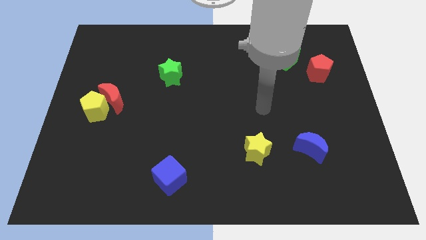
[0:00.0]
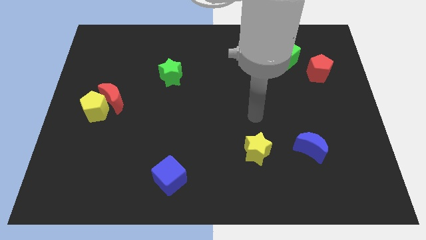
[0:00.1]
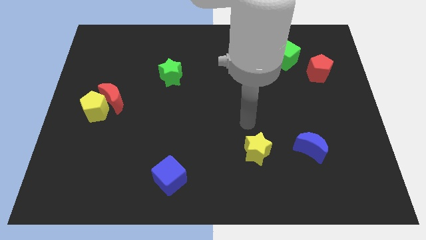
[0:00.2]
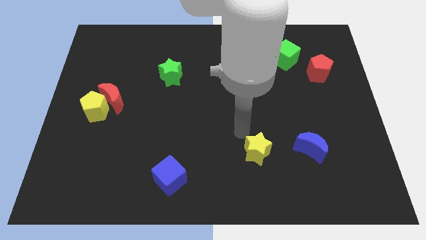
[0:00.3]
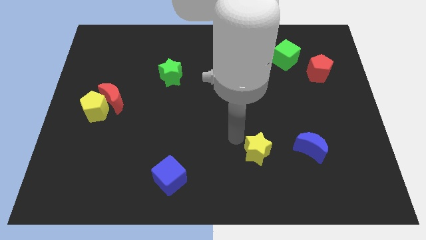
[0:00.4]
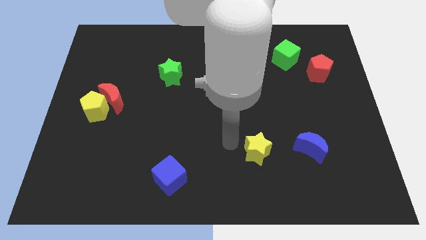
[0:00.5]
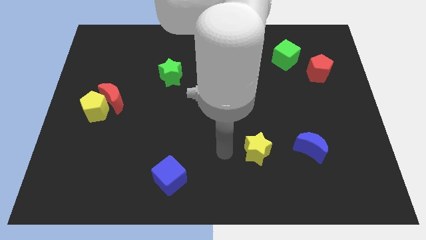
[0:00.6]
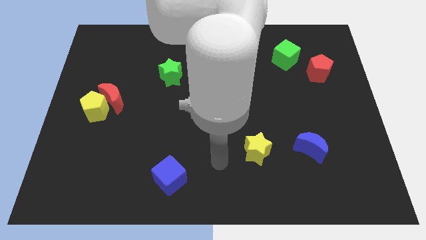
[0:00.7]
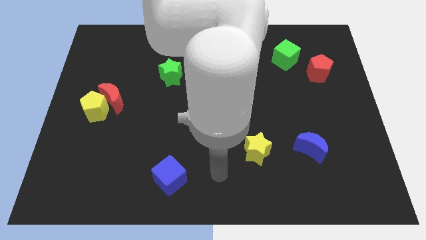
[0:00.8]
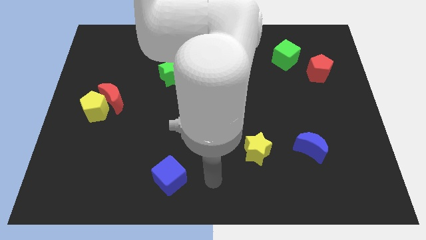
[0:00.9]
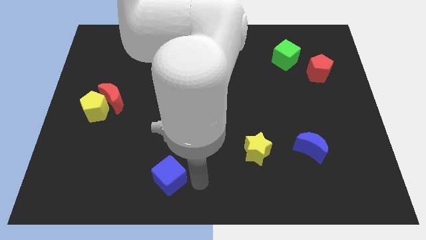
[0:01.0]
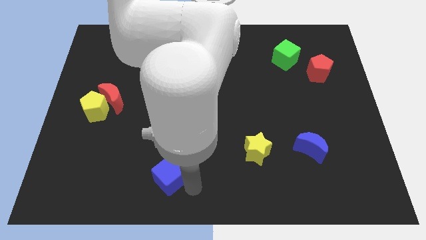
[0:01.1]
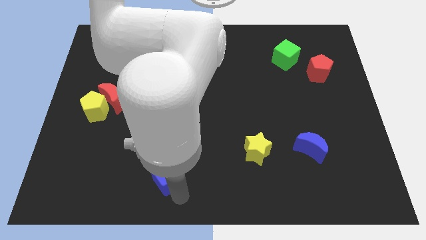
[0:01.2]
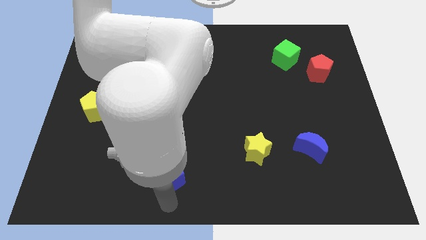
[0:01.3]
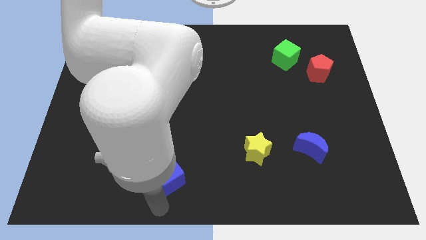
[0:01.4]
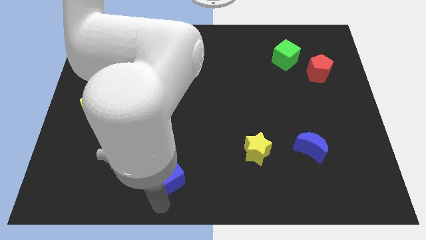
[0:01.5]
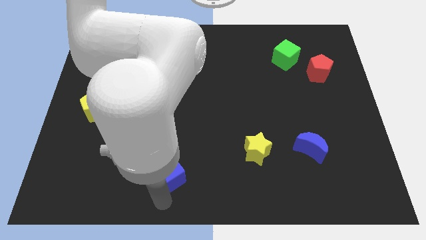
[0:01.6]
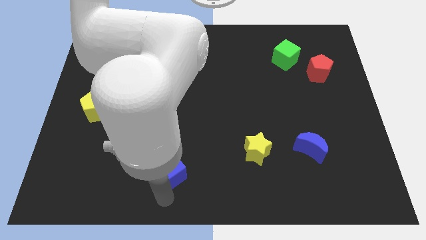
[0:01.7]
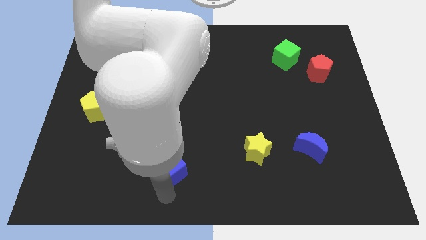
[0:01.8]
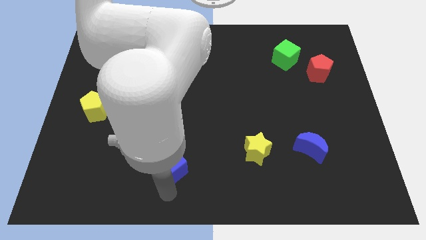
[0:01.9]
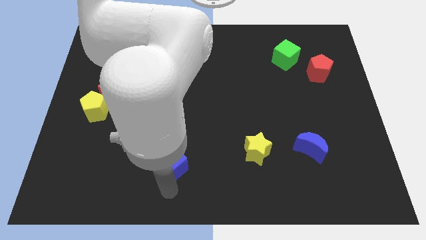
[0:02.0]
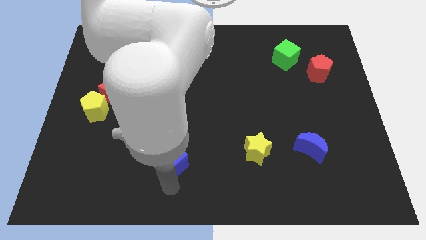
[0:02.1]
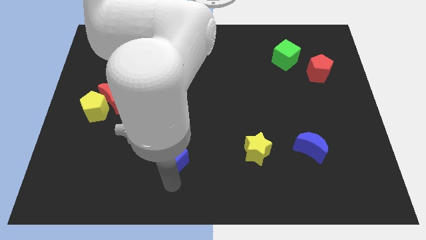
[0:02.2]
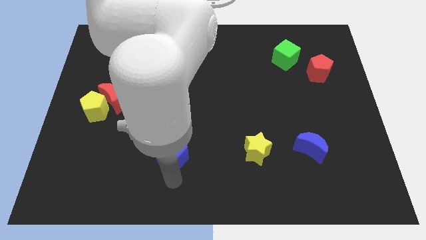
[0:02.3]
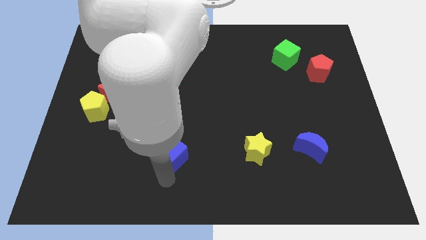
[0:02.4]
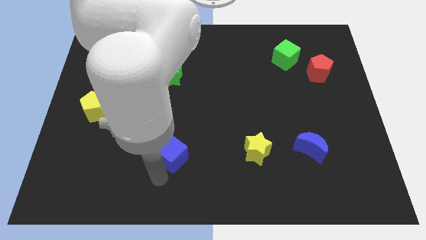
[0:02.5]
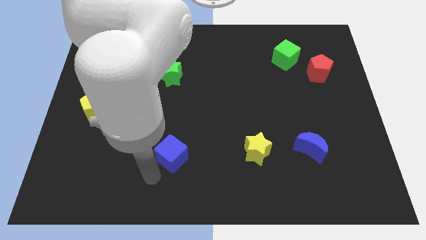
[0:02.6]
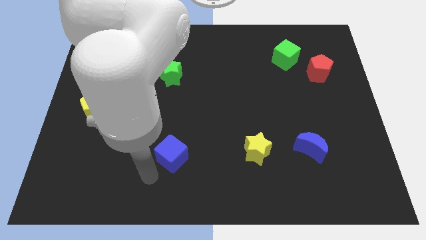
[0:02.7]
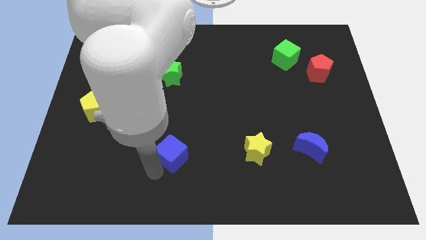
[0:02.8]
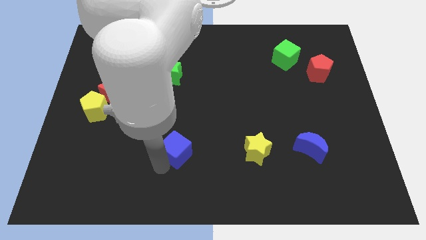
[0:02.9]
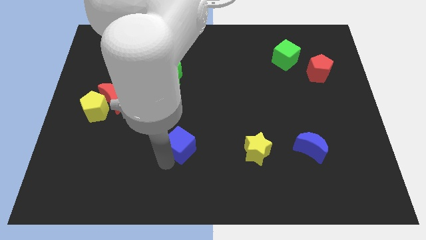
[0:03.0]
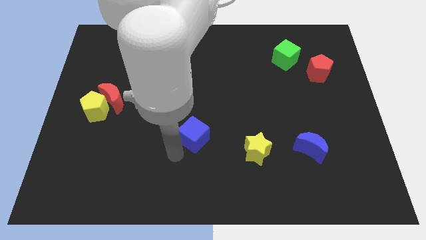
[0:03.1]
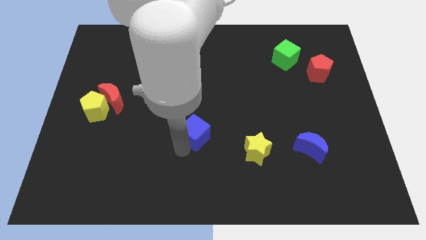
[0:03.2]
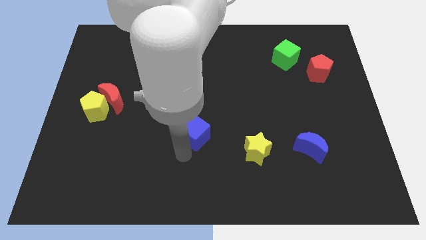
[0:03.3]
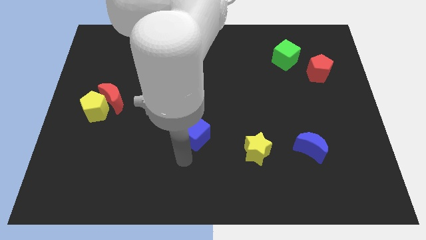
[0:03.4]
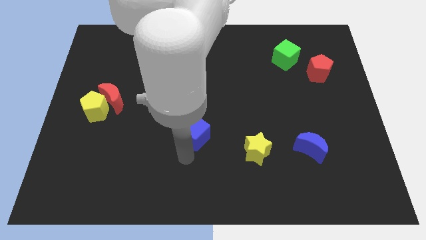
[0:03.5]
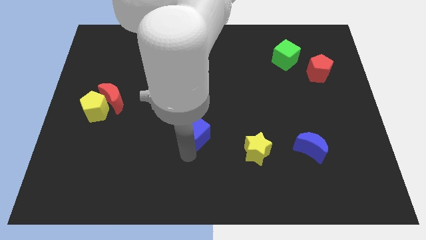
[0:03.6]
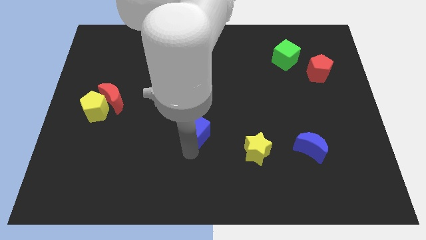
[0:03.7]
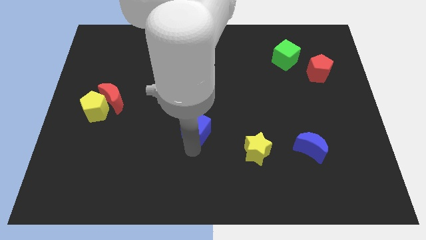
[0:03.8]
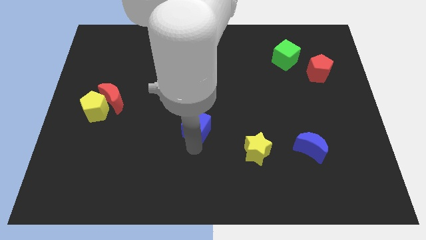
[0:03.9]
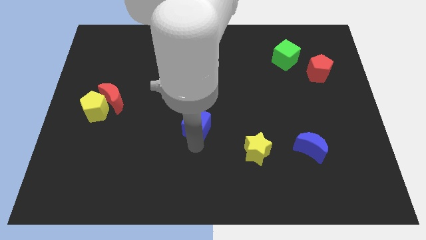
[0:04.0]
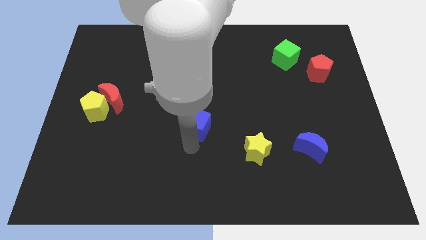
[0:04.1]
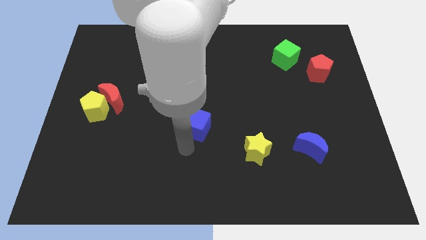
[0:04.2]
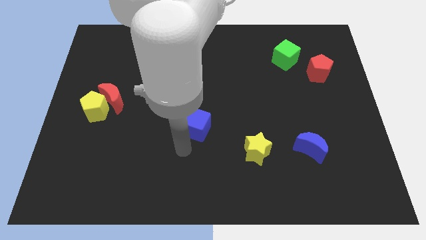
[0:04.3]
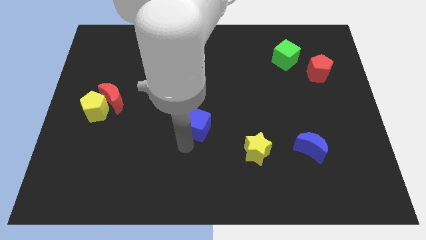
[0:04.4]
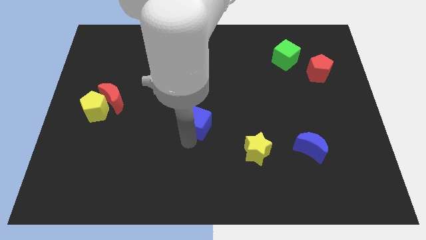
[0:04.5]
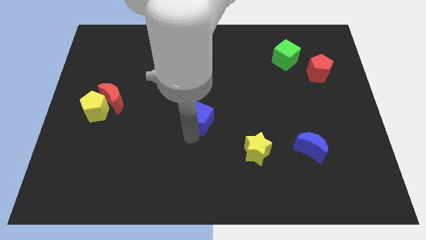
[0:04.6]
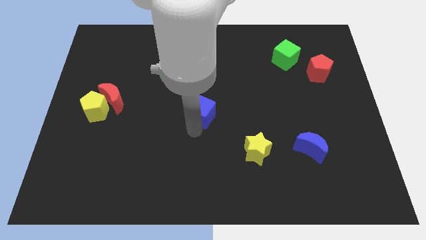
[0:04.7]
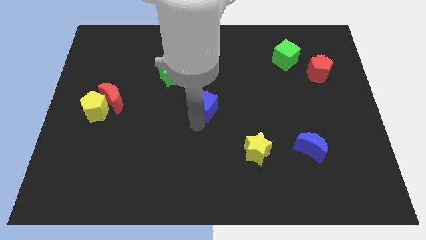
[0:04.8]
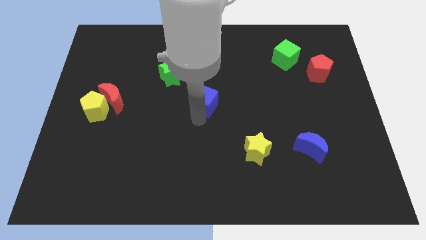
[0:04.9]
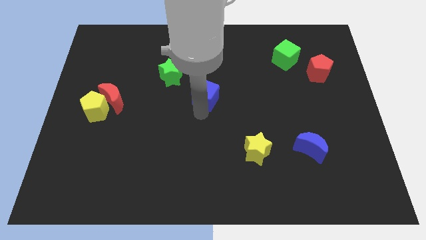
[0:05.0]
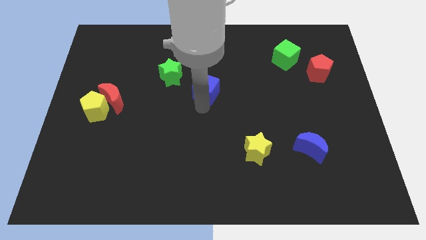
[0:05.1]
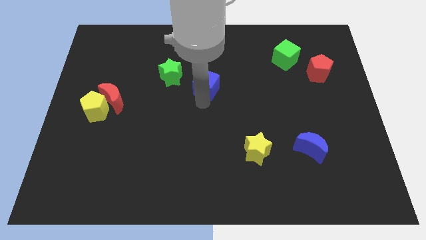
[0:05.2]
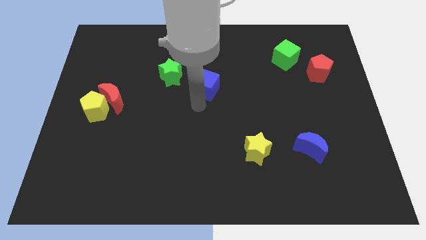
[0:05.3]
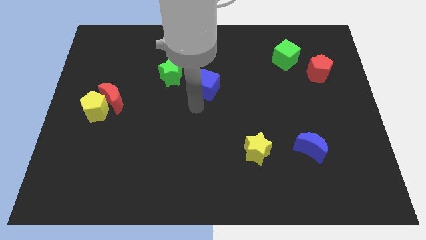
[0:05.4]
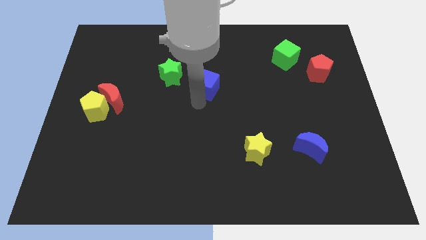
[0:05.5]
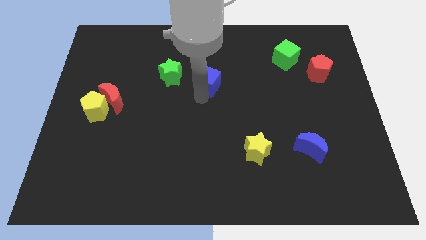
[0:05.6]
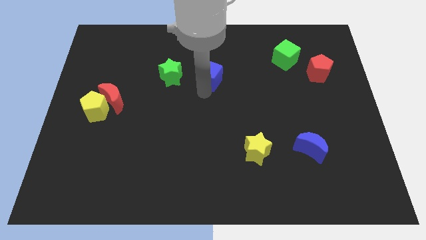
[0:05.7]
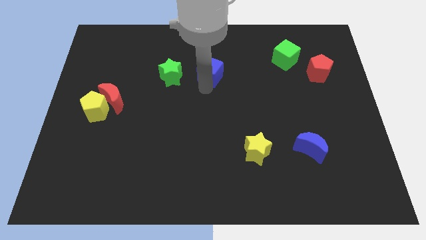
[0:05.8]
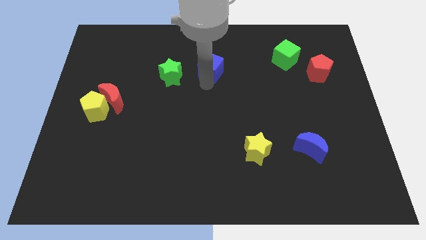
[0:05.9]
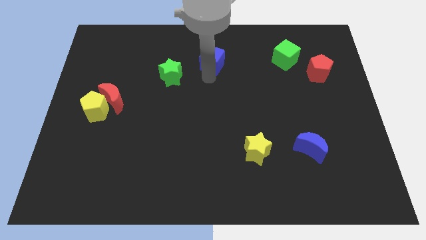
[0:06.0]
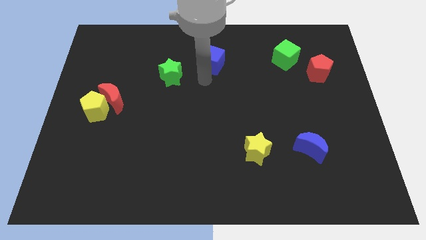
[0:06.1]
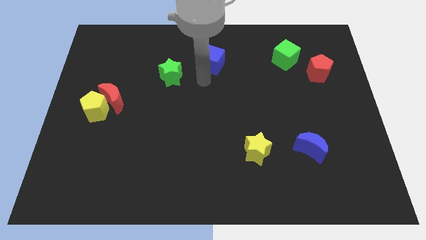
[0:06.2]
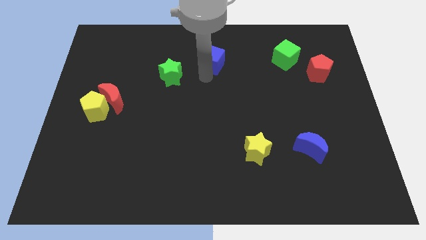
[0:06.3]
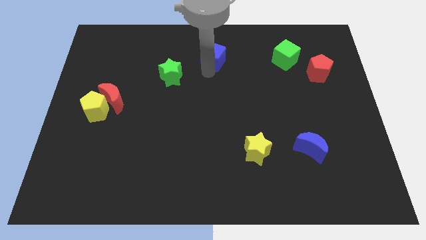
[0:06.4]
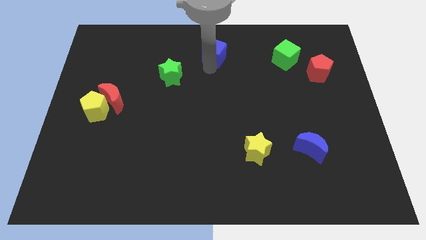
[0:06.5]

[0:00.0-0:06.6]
put the blue cube to the top

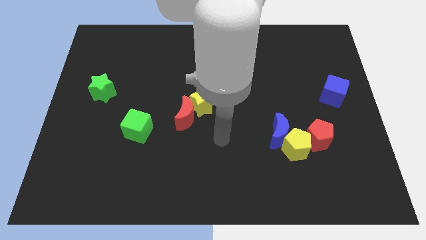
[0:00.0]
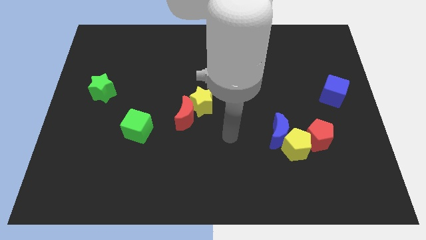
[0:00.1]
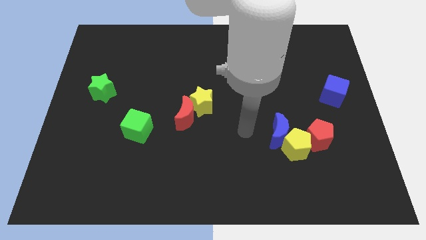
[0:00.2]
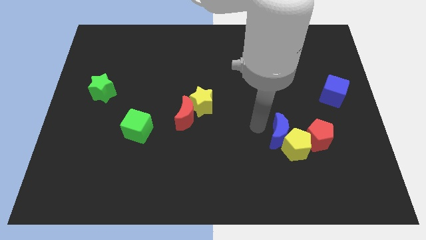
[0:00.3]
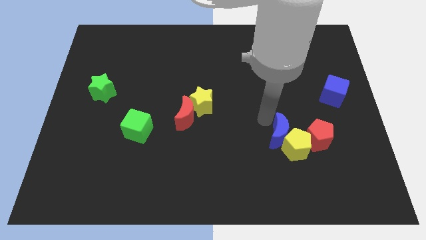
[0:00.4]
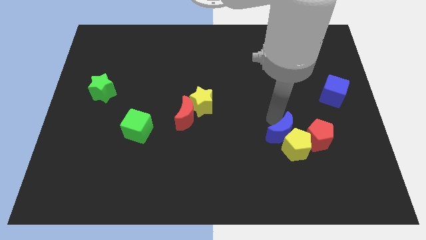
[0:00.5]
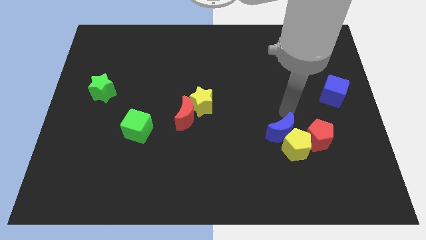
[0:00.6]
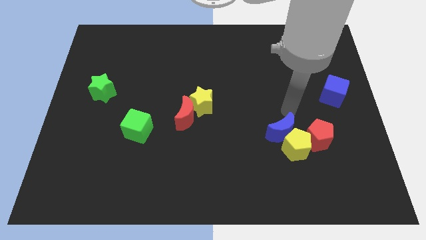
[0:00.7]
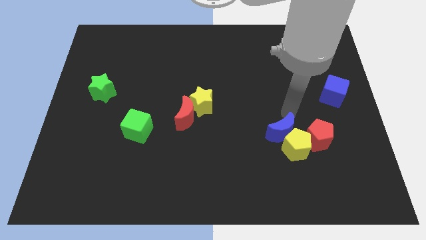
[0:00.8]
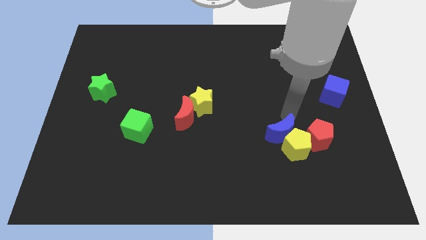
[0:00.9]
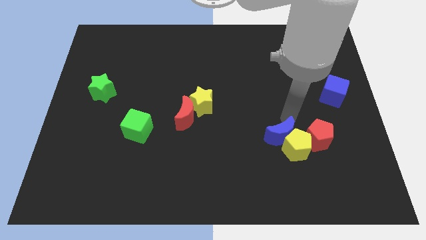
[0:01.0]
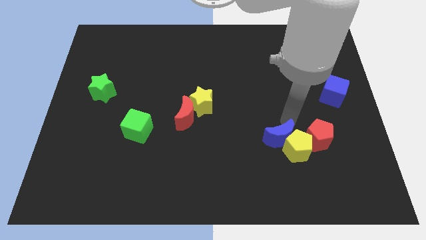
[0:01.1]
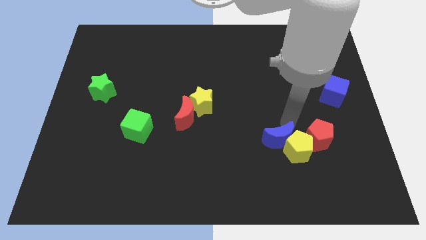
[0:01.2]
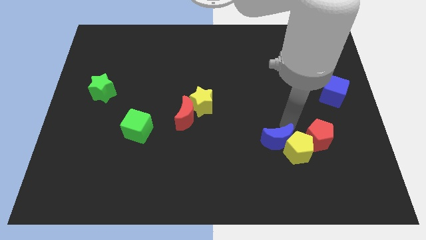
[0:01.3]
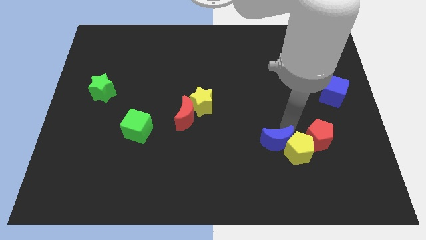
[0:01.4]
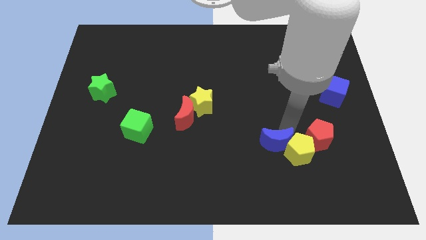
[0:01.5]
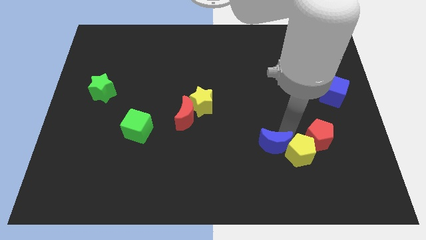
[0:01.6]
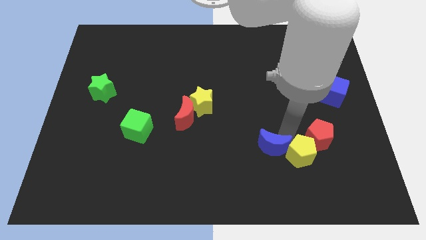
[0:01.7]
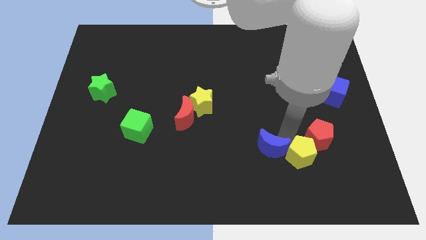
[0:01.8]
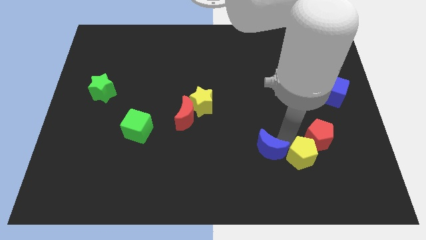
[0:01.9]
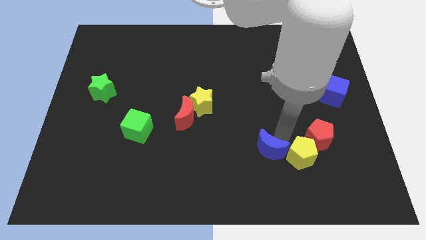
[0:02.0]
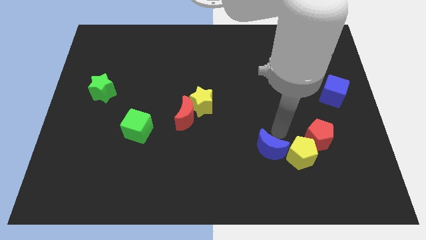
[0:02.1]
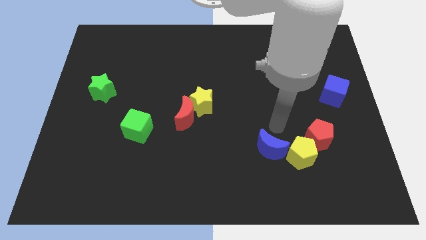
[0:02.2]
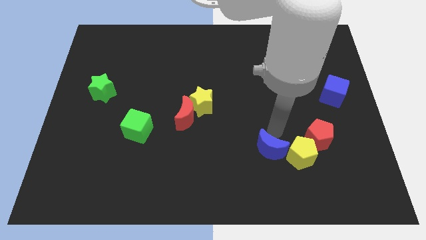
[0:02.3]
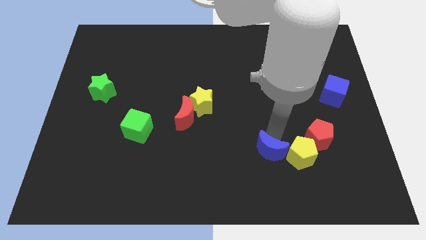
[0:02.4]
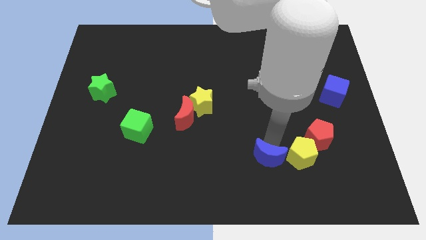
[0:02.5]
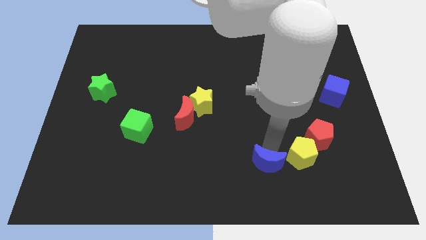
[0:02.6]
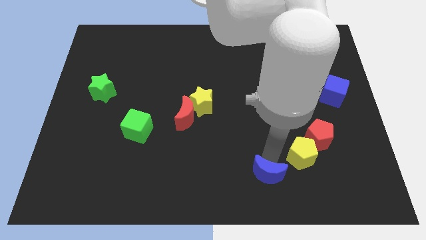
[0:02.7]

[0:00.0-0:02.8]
push the blue moon to the bottom
